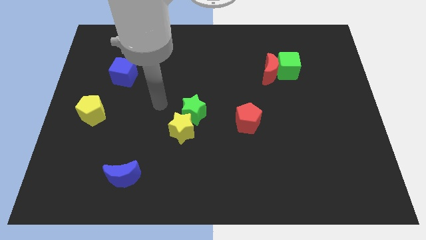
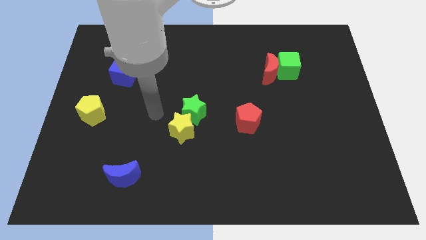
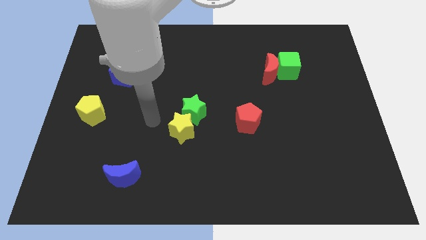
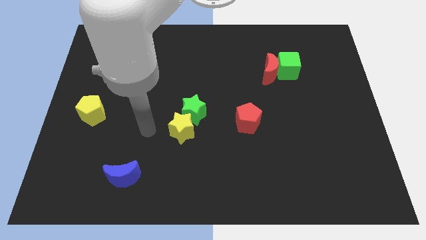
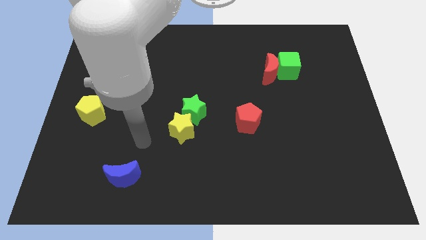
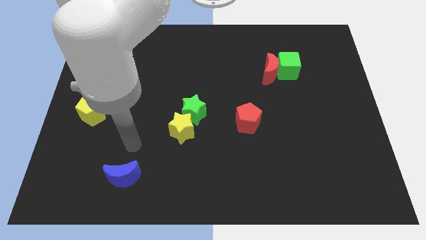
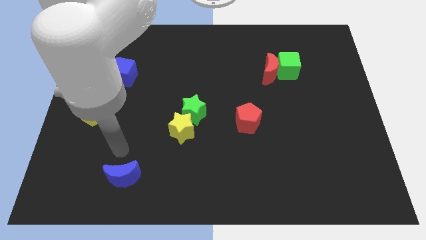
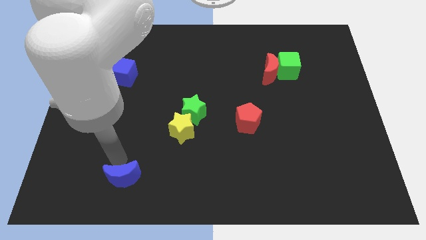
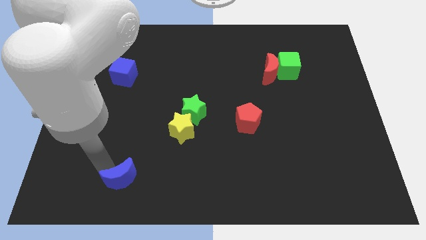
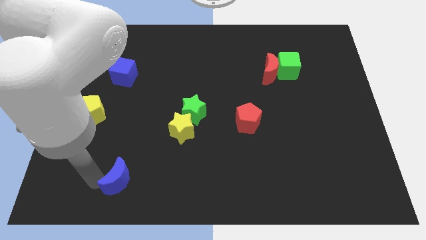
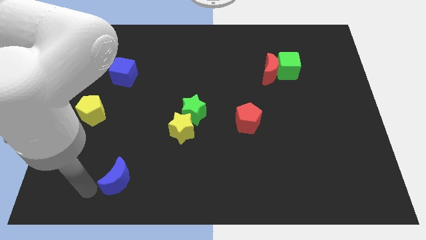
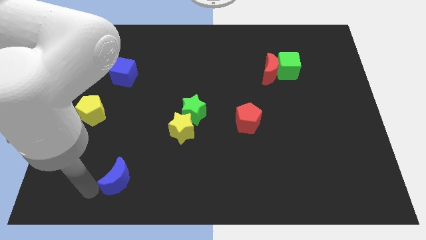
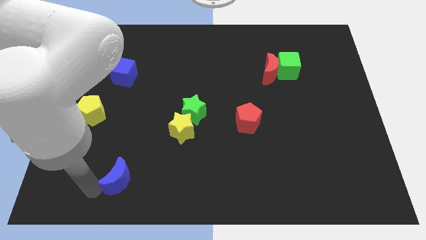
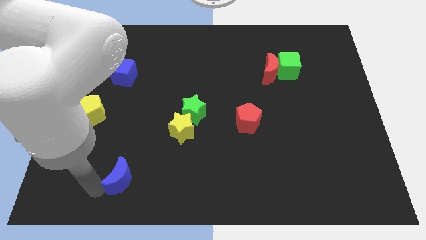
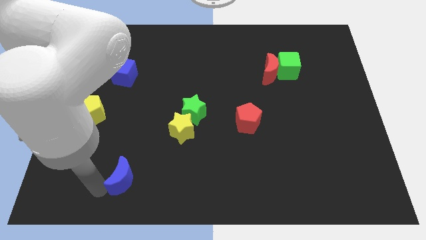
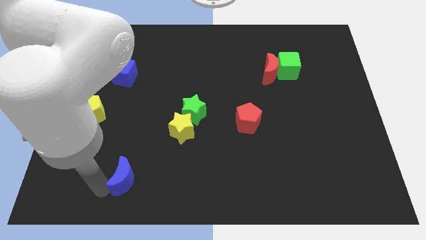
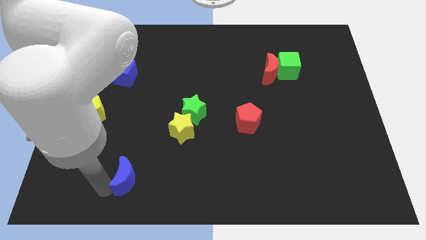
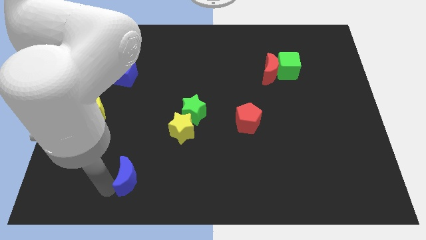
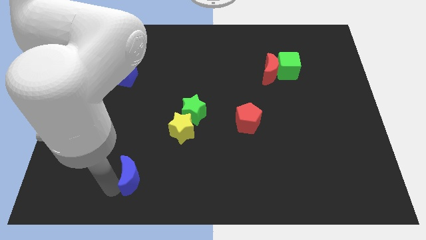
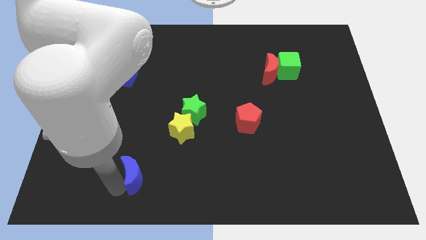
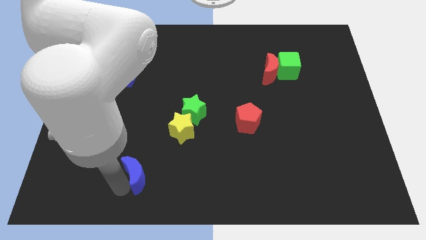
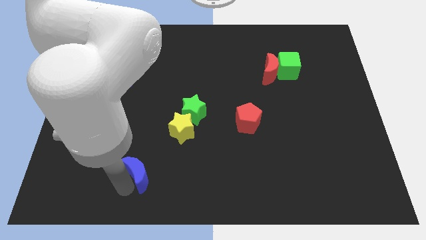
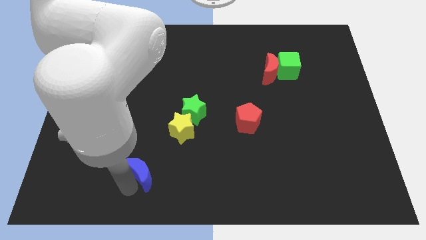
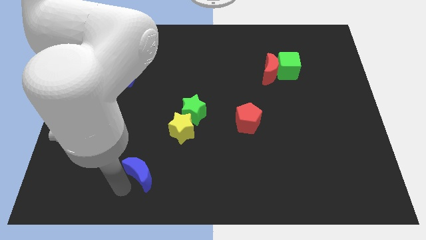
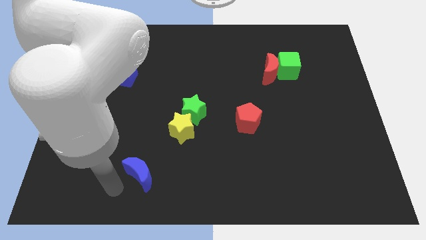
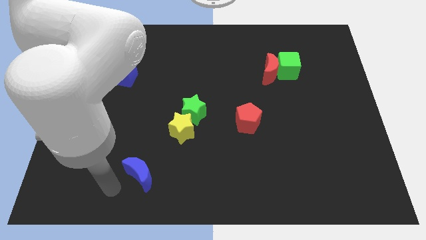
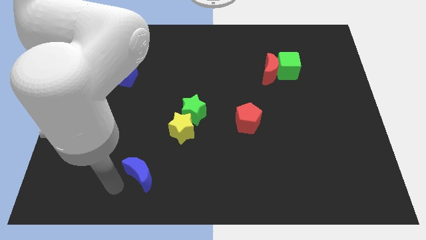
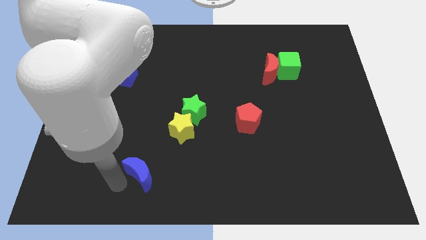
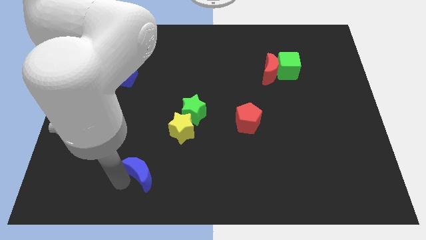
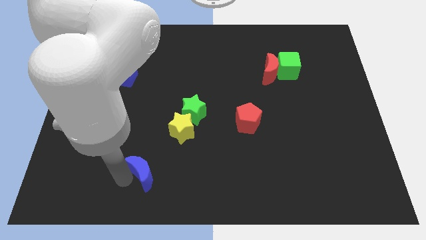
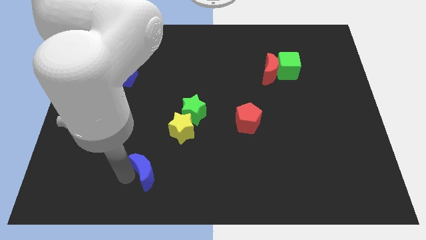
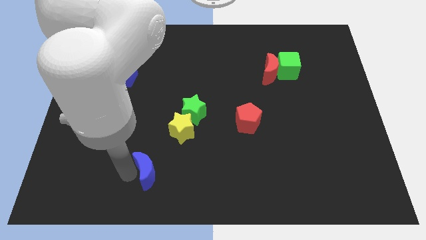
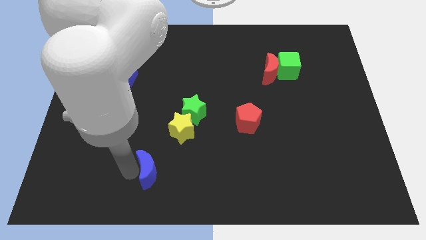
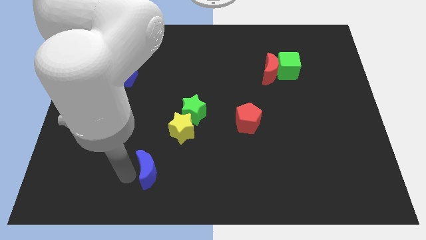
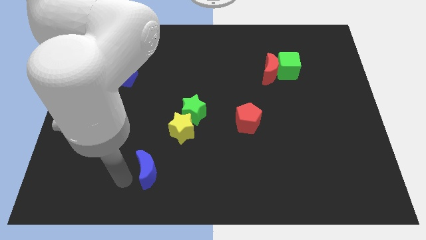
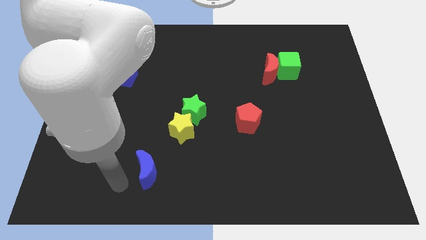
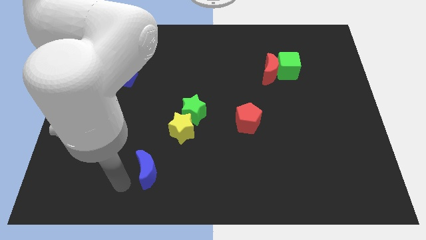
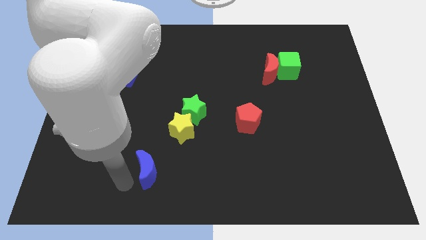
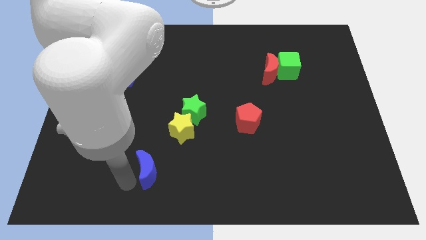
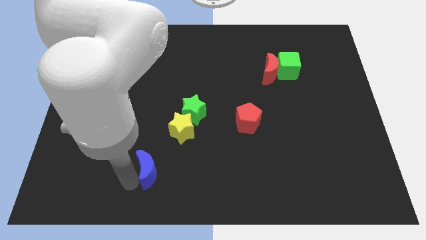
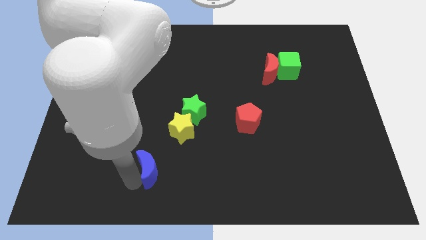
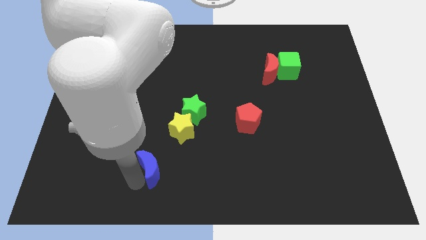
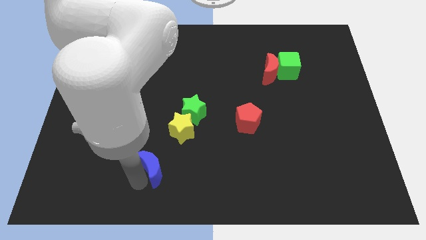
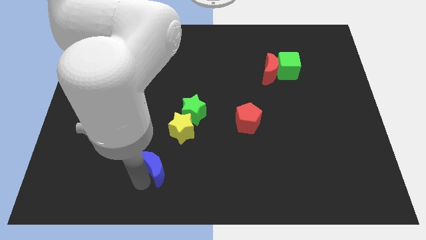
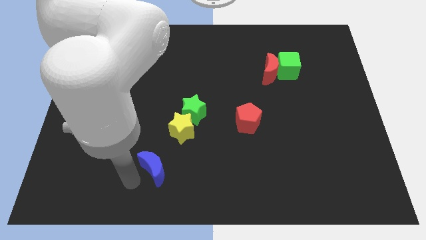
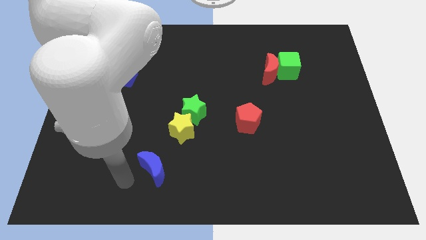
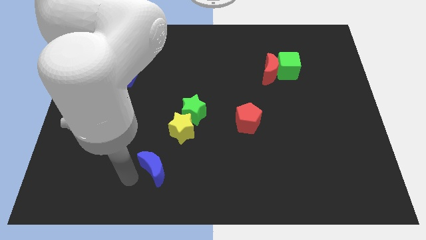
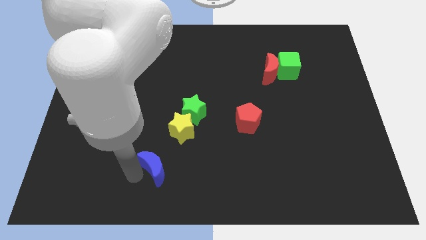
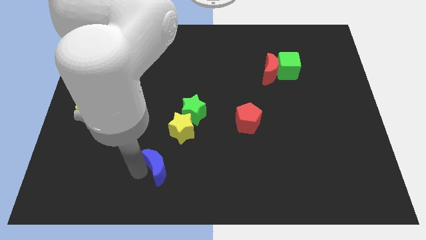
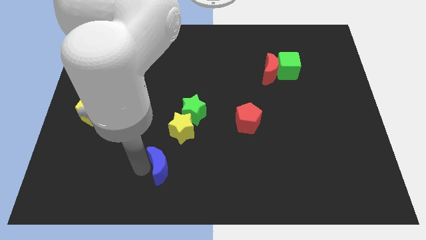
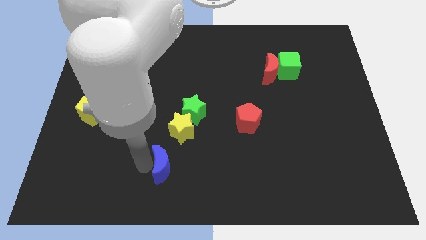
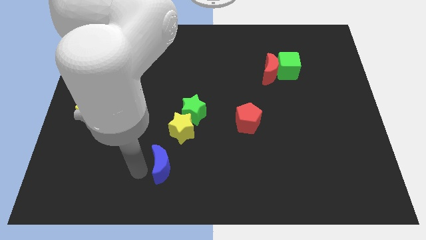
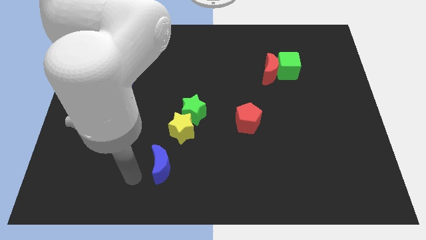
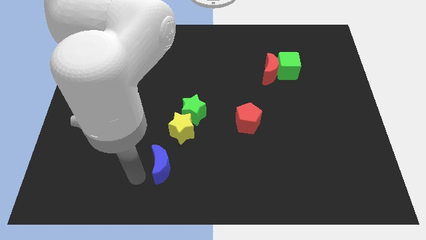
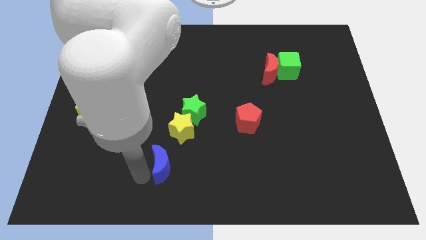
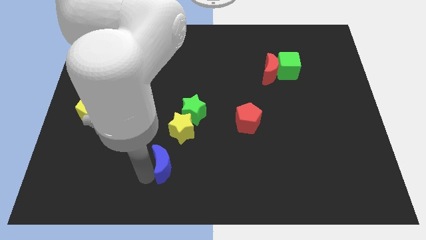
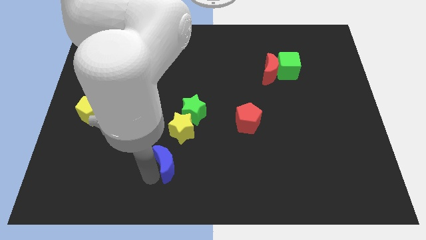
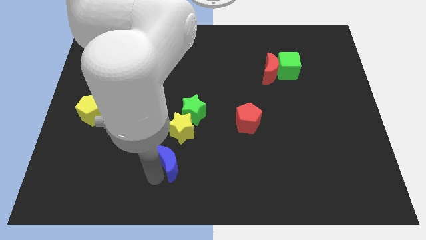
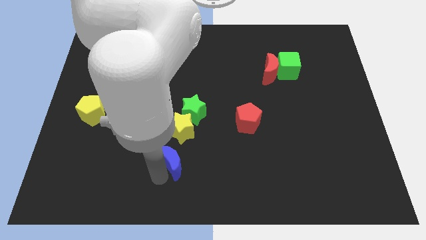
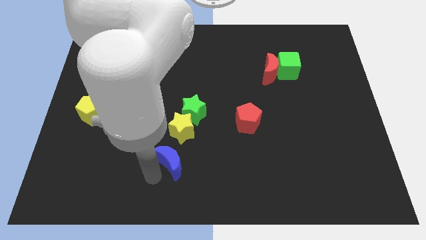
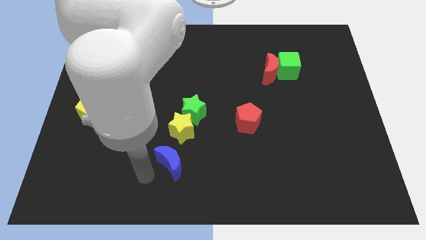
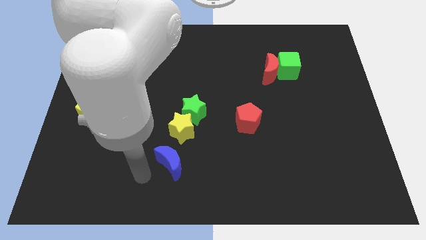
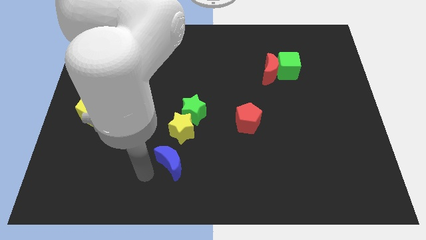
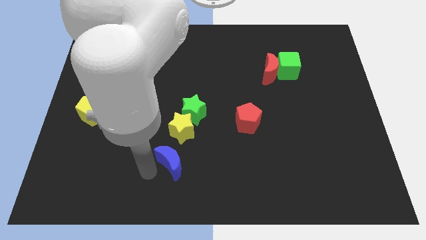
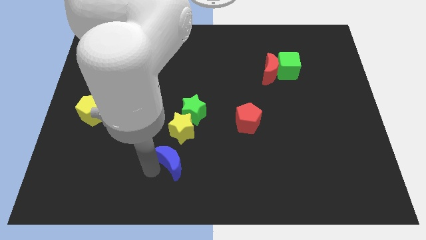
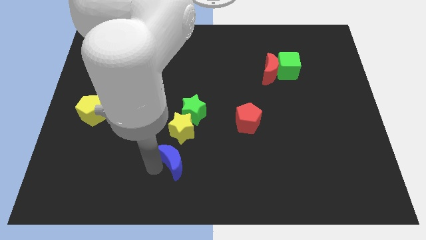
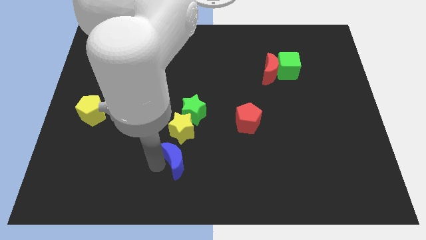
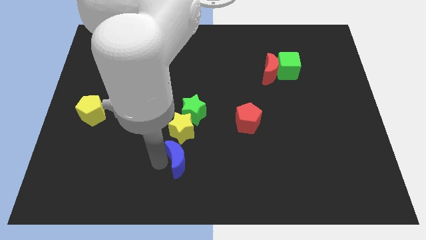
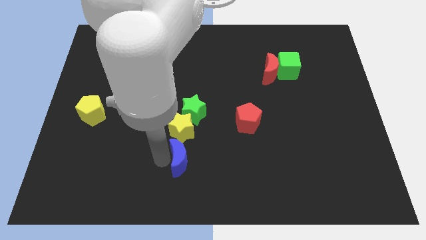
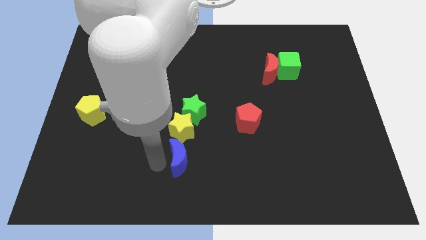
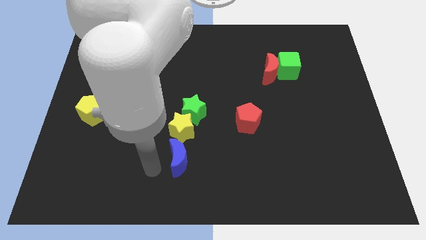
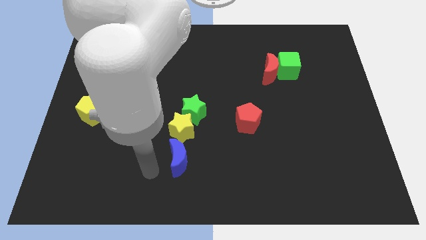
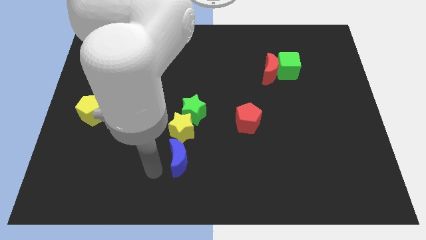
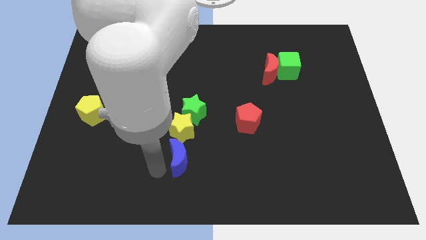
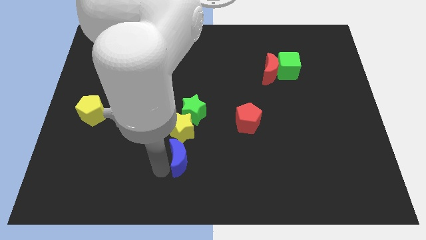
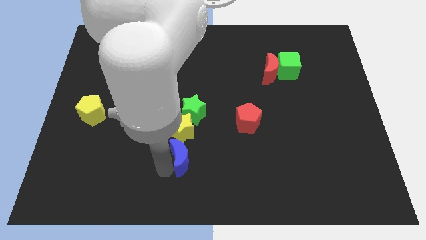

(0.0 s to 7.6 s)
slide the blue moon to the bottom right side of the yellow star
